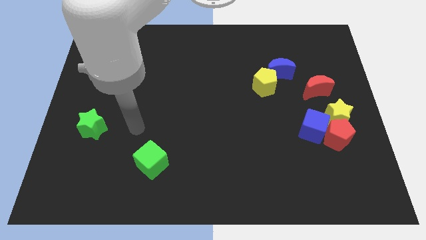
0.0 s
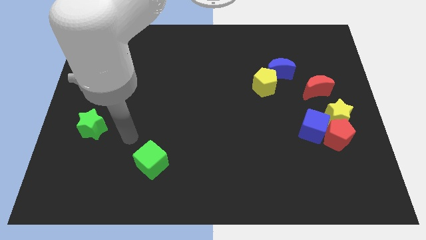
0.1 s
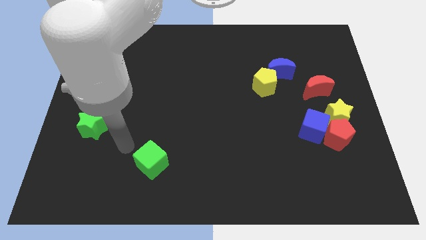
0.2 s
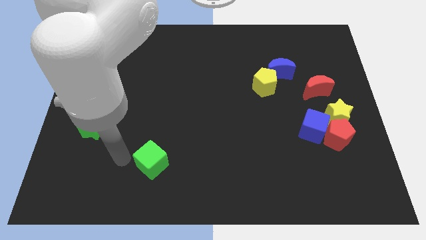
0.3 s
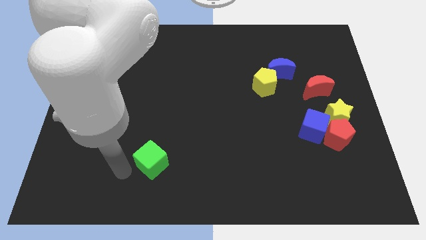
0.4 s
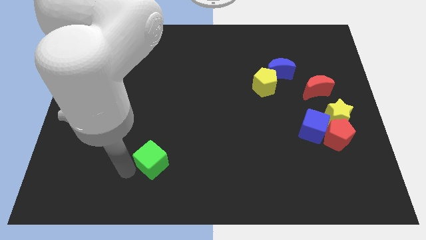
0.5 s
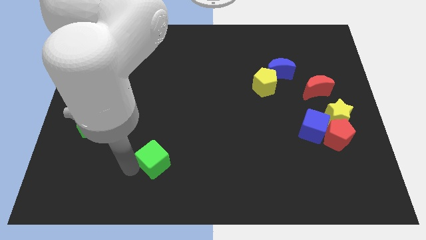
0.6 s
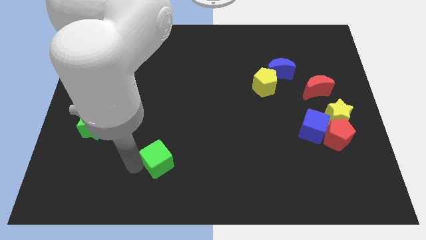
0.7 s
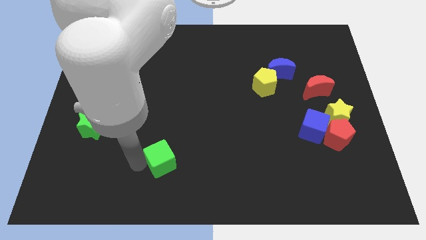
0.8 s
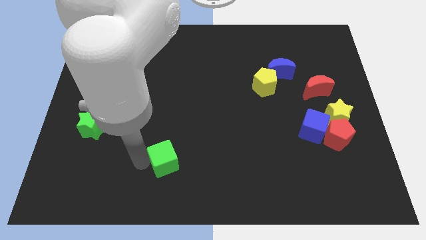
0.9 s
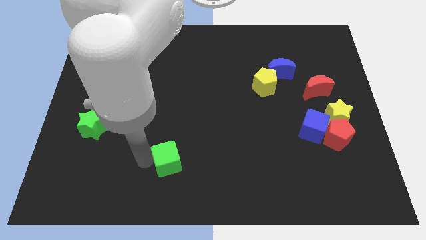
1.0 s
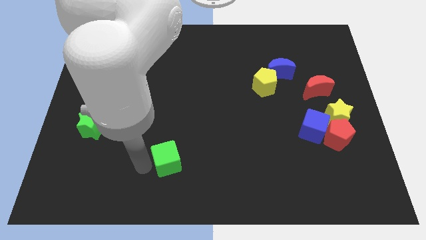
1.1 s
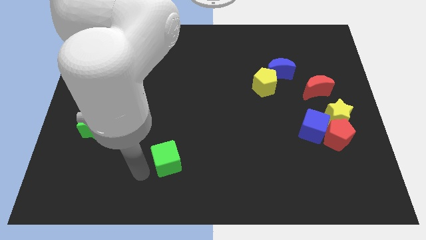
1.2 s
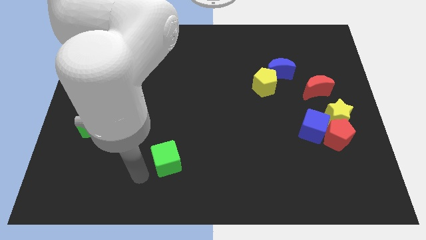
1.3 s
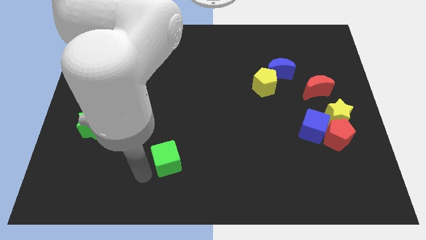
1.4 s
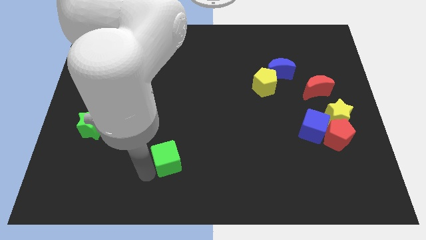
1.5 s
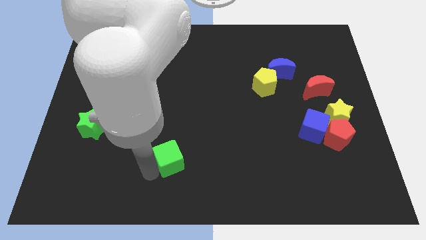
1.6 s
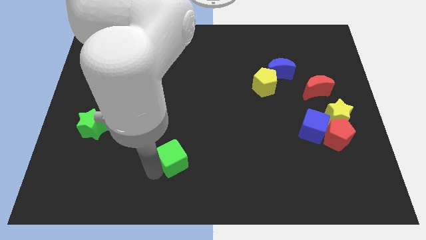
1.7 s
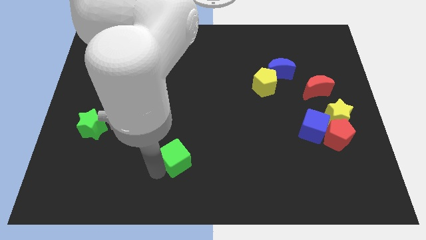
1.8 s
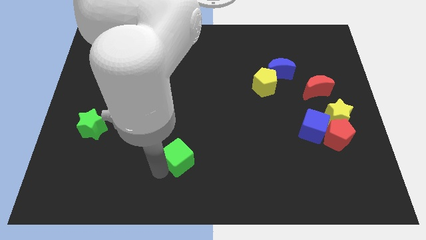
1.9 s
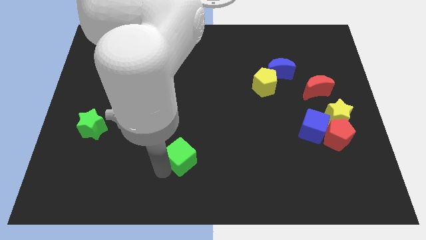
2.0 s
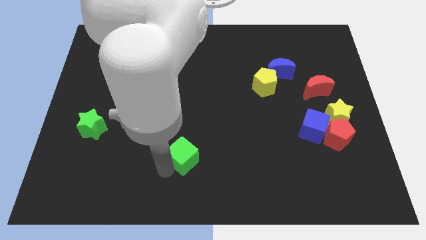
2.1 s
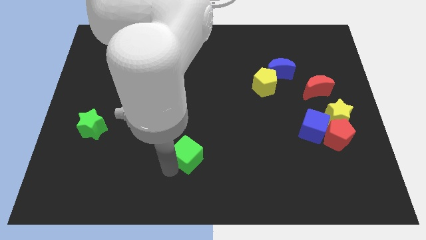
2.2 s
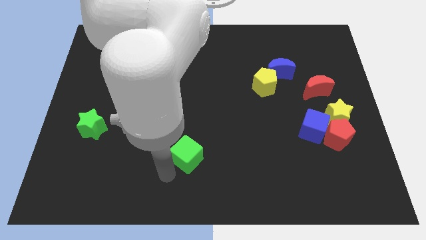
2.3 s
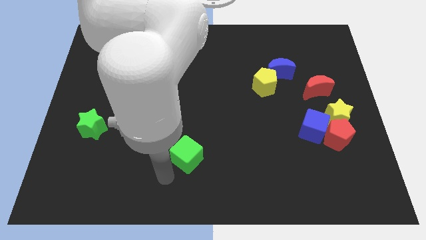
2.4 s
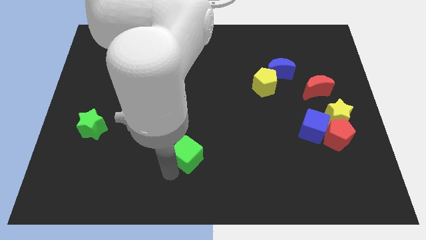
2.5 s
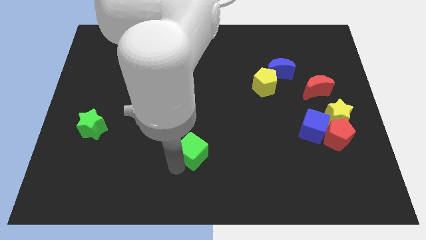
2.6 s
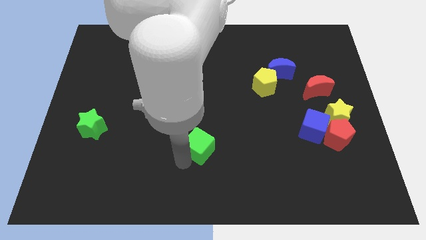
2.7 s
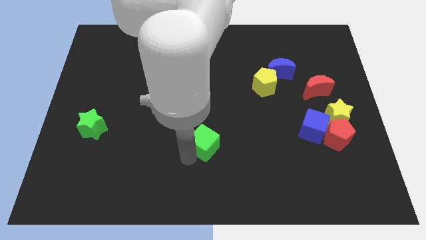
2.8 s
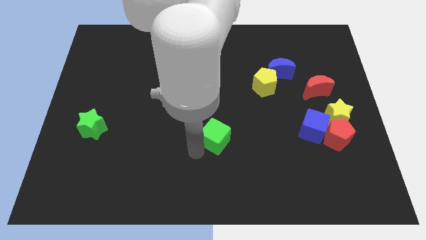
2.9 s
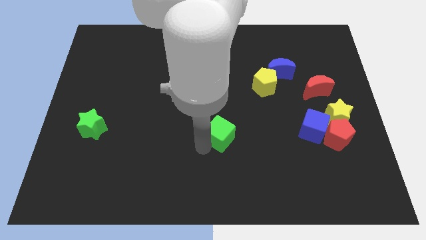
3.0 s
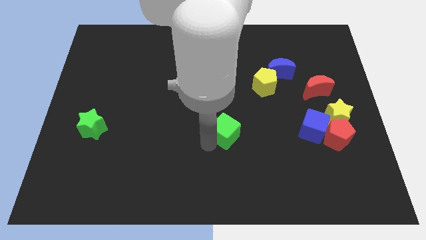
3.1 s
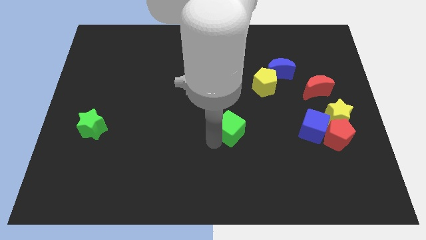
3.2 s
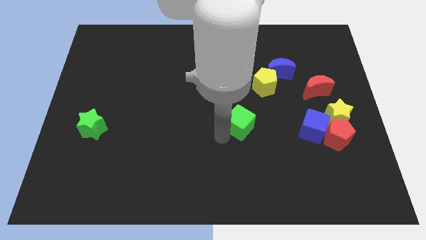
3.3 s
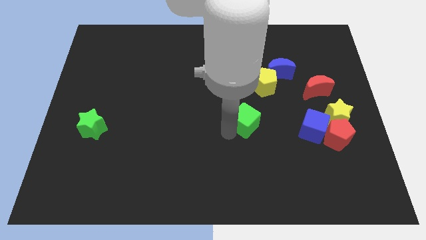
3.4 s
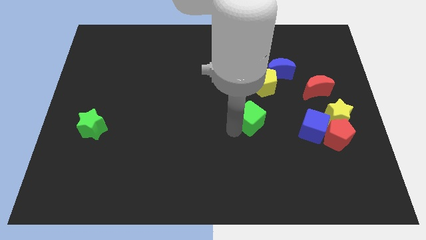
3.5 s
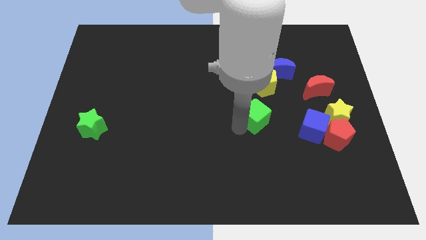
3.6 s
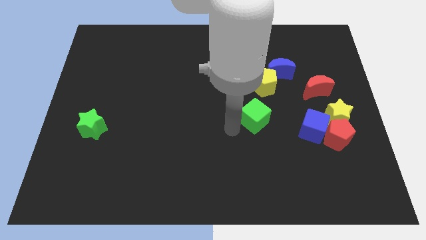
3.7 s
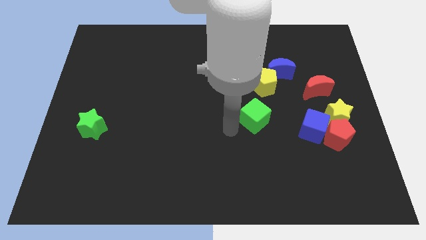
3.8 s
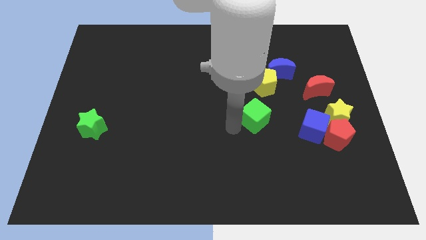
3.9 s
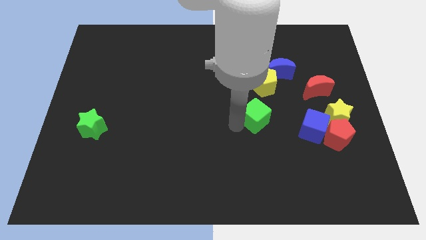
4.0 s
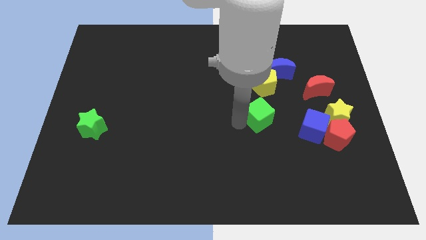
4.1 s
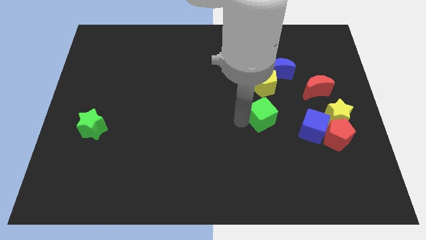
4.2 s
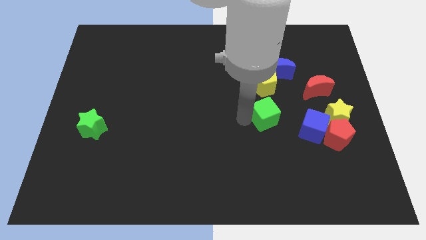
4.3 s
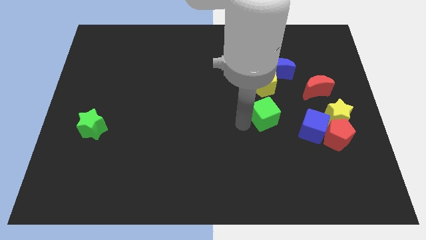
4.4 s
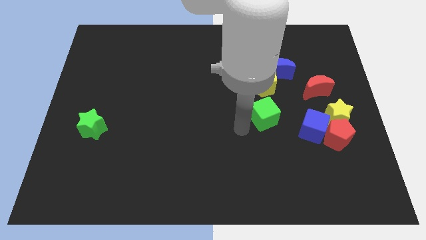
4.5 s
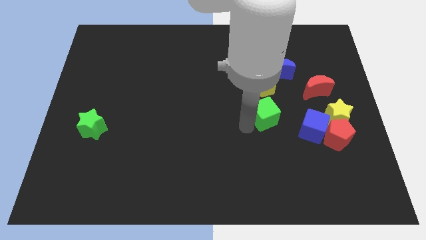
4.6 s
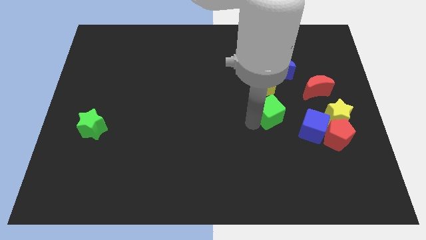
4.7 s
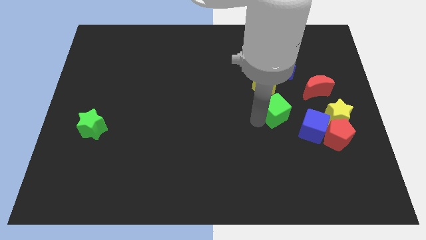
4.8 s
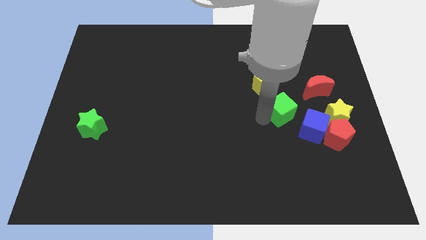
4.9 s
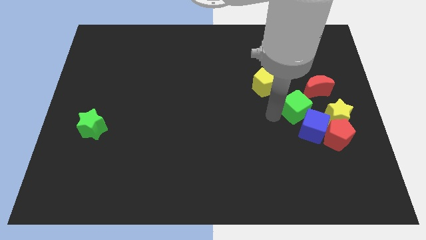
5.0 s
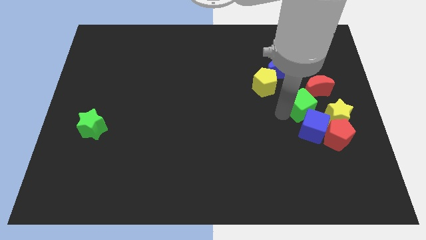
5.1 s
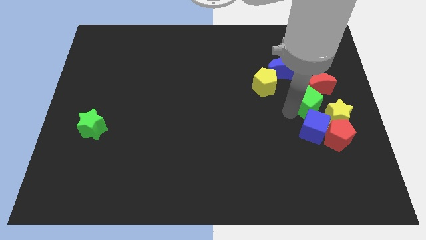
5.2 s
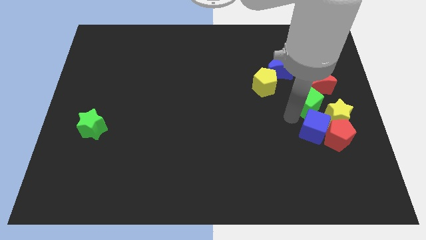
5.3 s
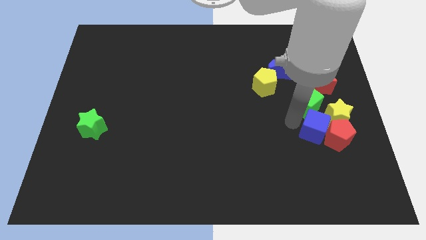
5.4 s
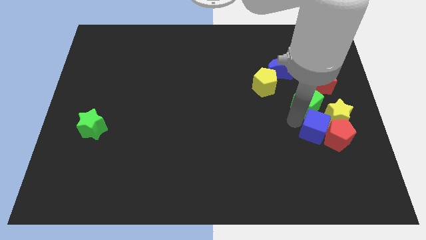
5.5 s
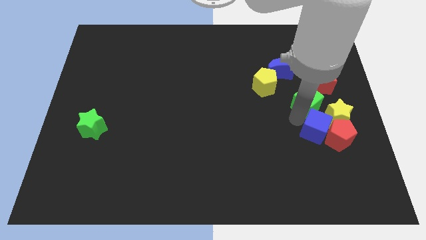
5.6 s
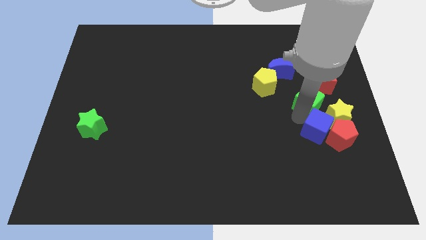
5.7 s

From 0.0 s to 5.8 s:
slide the green cube next to the red moon

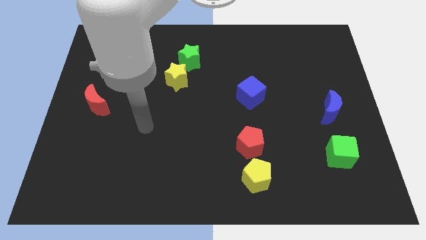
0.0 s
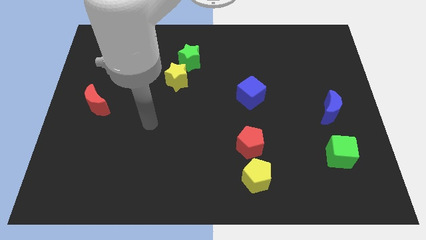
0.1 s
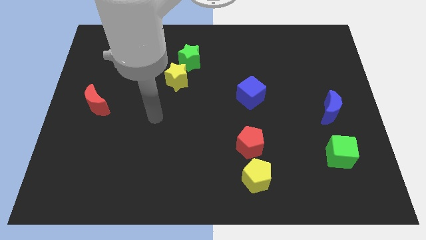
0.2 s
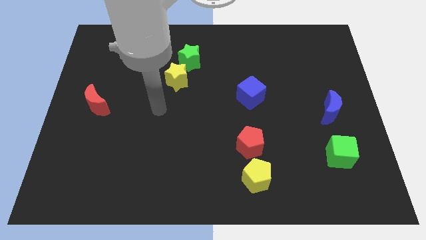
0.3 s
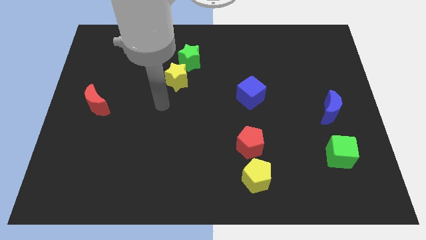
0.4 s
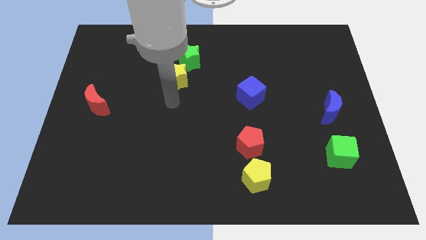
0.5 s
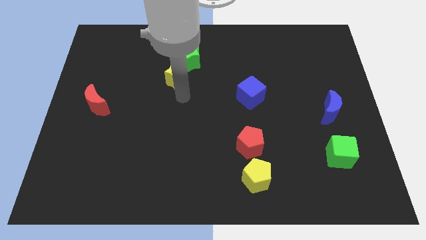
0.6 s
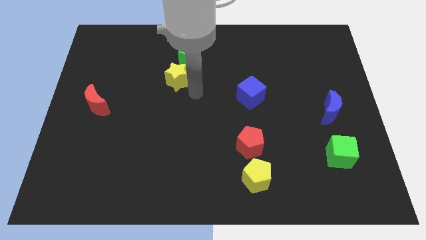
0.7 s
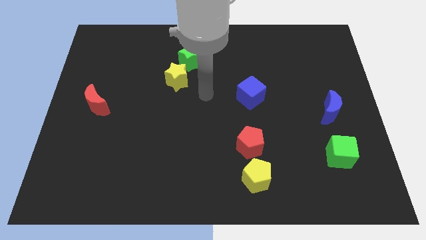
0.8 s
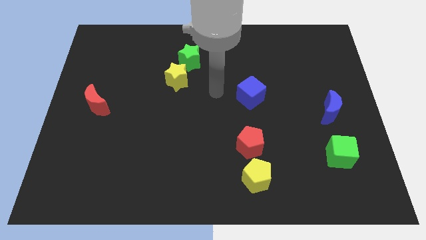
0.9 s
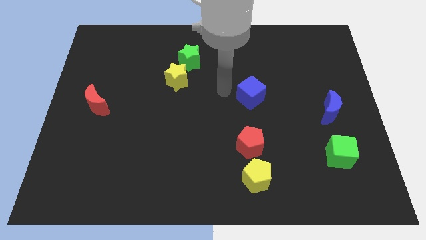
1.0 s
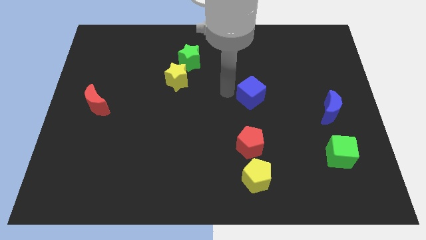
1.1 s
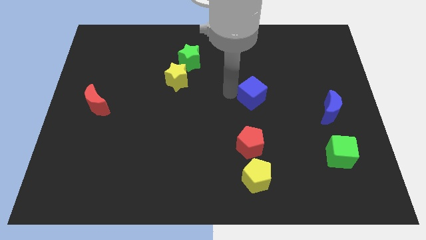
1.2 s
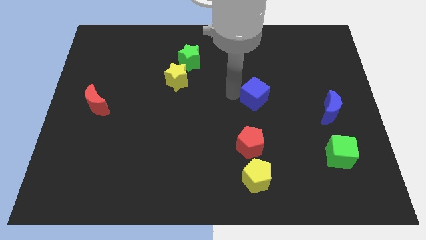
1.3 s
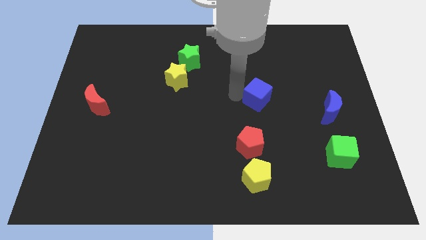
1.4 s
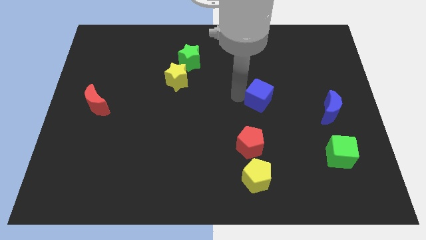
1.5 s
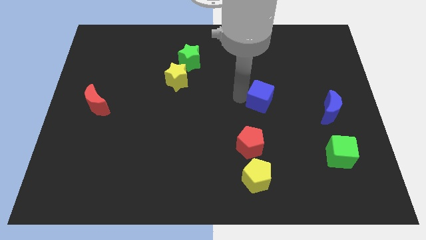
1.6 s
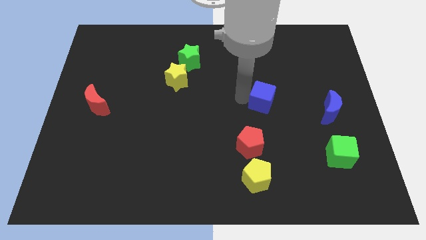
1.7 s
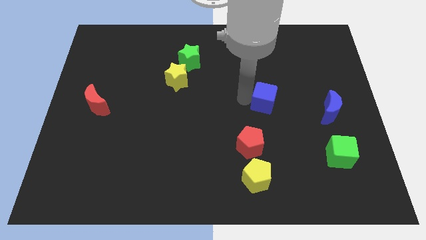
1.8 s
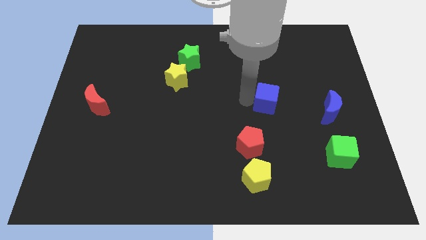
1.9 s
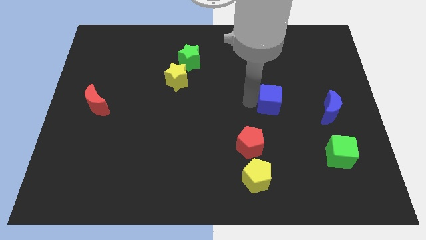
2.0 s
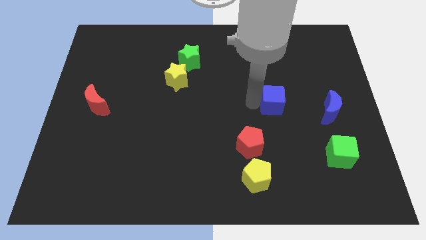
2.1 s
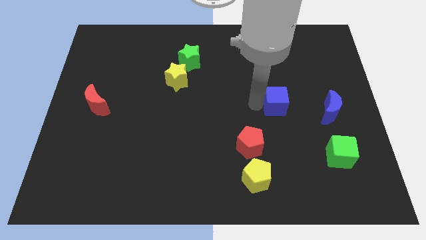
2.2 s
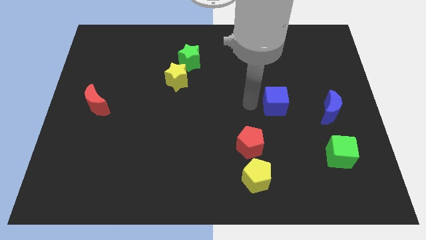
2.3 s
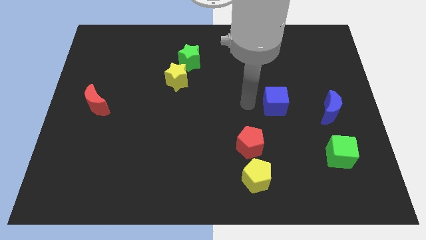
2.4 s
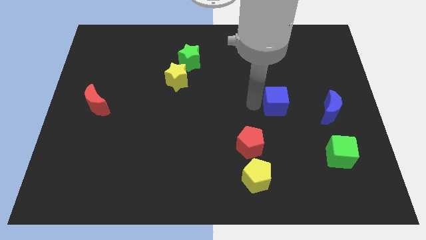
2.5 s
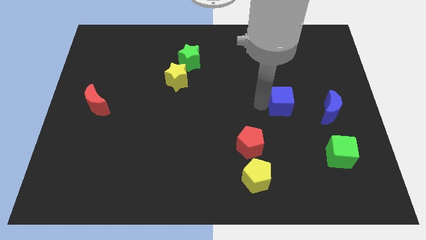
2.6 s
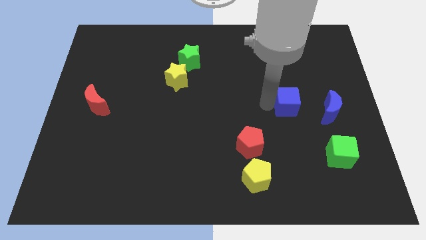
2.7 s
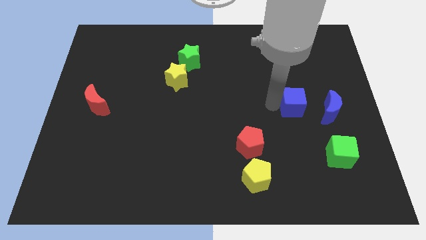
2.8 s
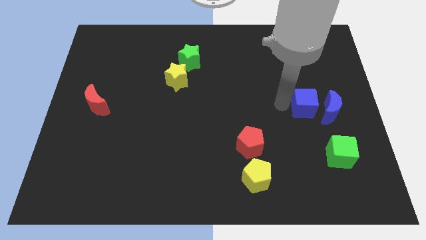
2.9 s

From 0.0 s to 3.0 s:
move the blue cube to the blue moon
